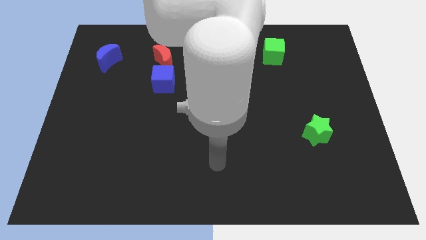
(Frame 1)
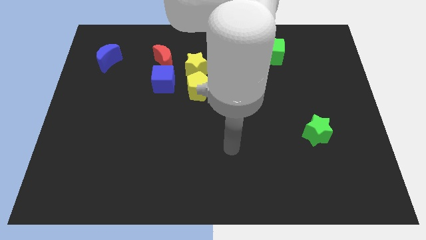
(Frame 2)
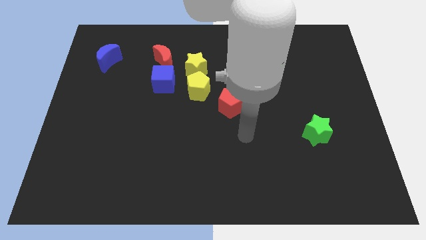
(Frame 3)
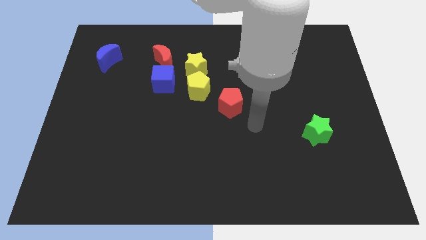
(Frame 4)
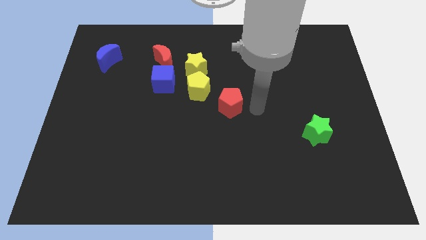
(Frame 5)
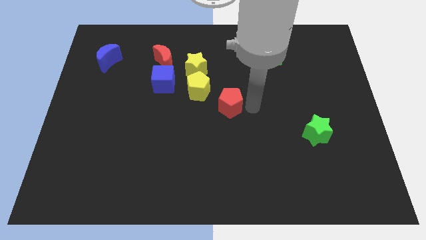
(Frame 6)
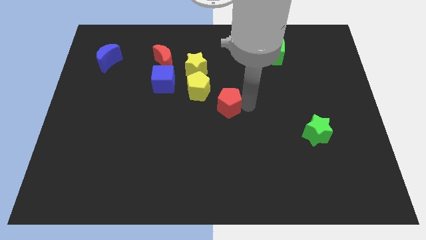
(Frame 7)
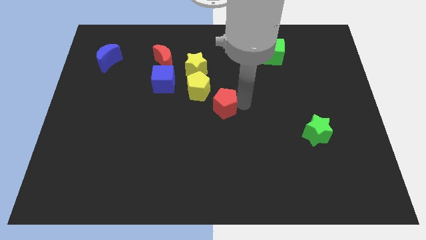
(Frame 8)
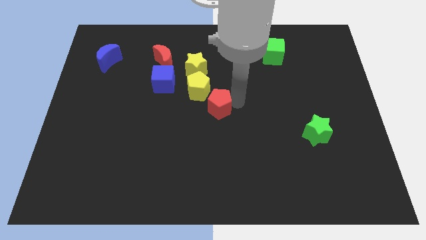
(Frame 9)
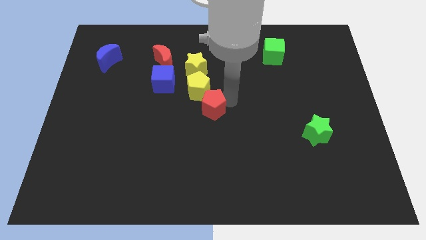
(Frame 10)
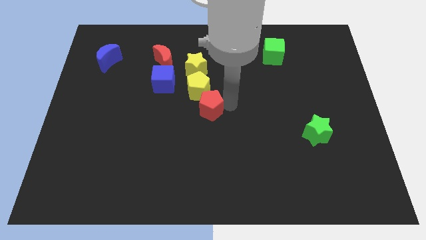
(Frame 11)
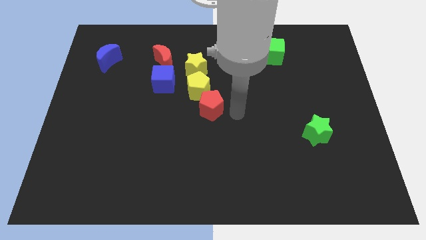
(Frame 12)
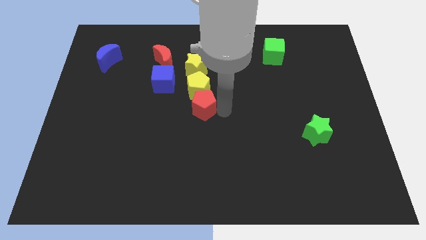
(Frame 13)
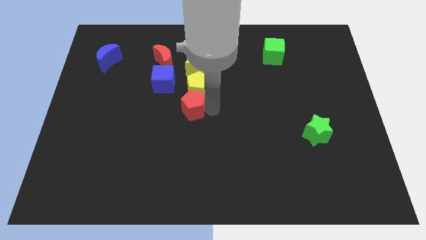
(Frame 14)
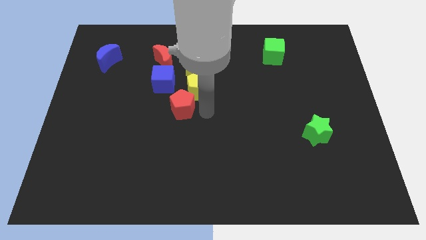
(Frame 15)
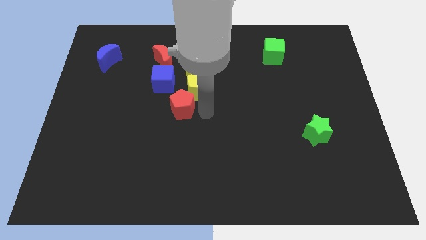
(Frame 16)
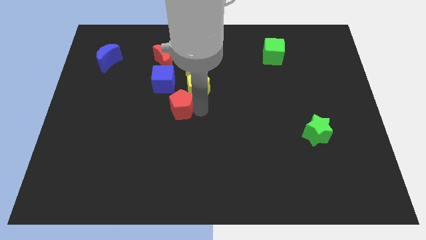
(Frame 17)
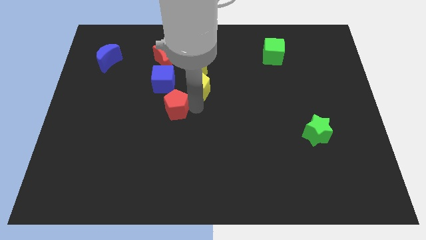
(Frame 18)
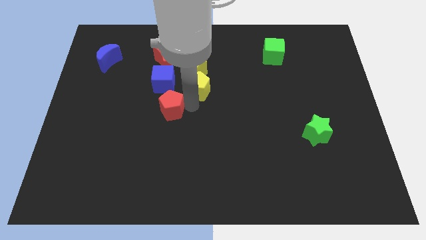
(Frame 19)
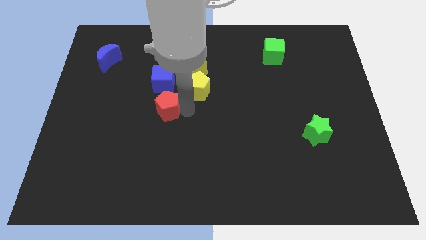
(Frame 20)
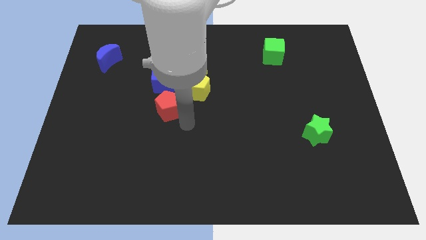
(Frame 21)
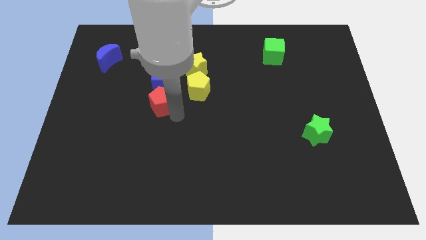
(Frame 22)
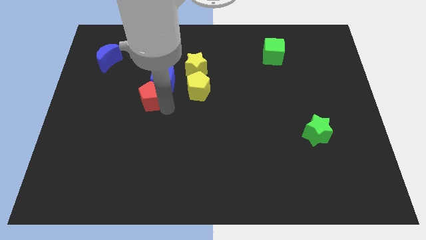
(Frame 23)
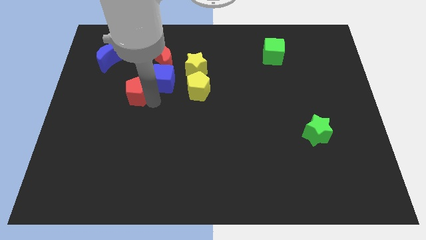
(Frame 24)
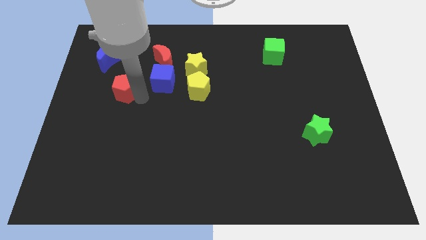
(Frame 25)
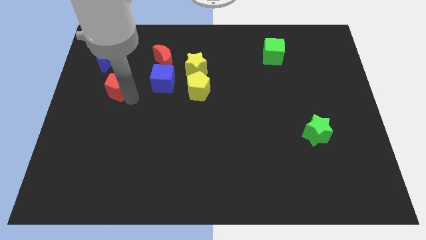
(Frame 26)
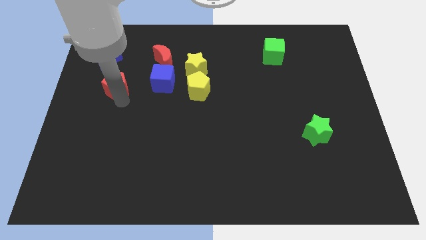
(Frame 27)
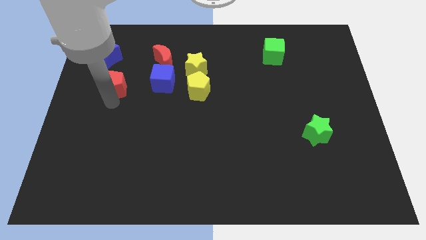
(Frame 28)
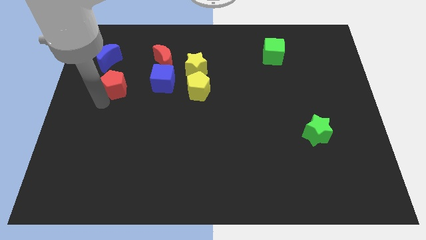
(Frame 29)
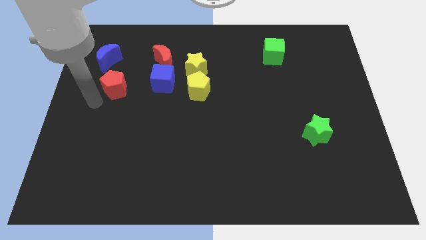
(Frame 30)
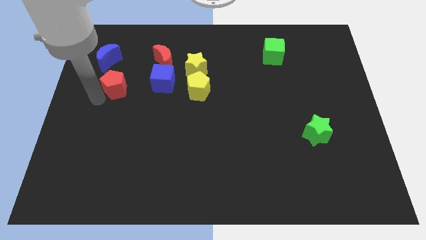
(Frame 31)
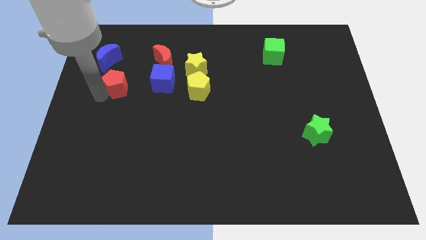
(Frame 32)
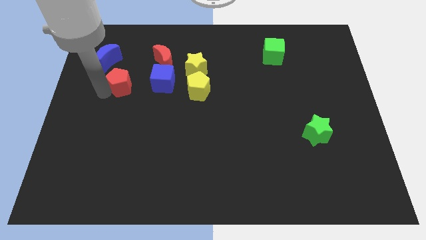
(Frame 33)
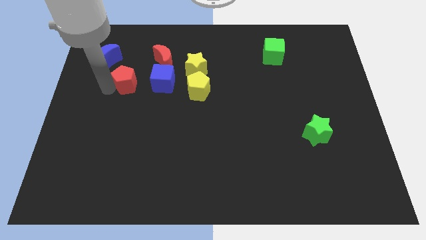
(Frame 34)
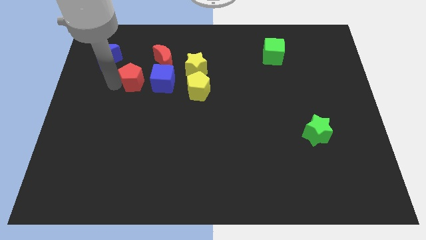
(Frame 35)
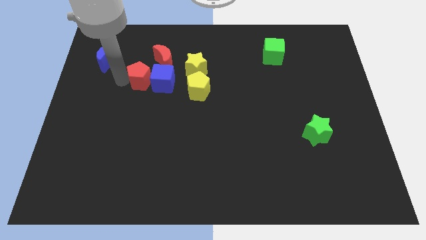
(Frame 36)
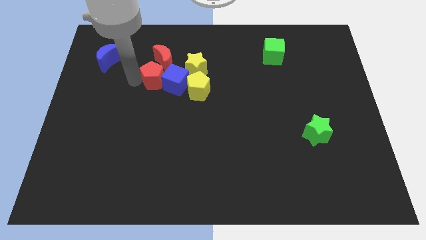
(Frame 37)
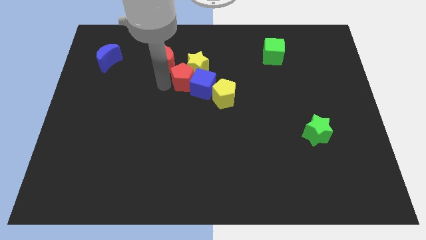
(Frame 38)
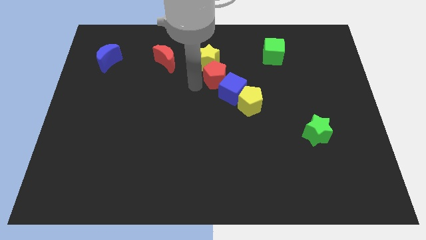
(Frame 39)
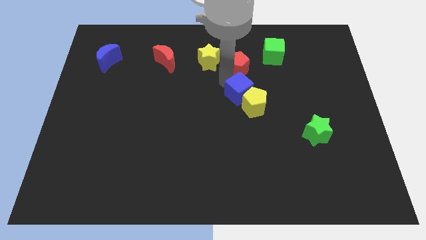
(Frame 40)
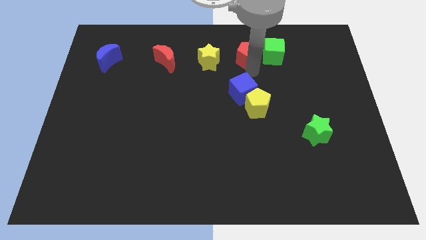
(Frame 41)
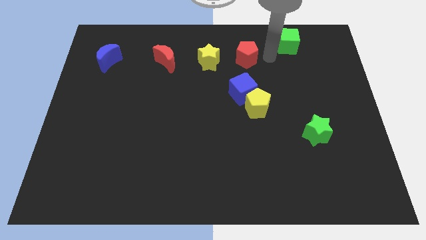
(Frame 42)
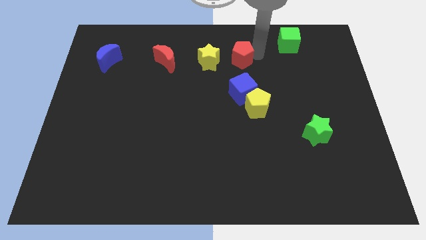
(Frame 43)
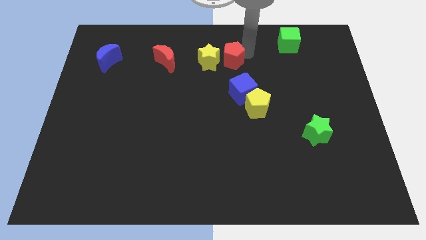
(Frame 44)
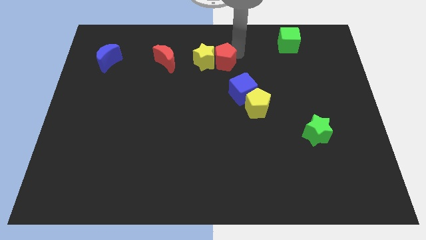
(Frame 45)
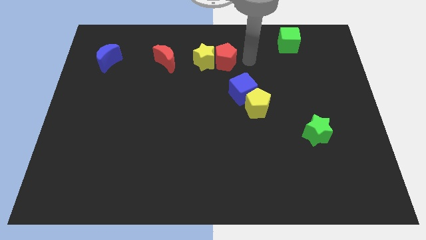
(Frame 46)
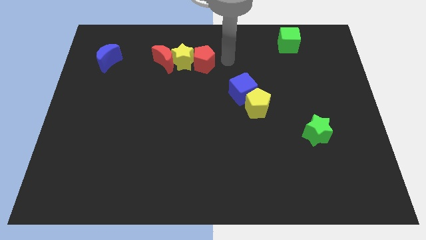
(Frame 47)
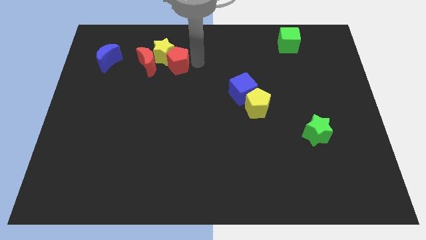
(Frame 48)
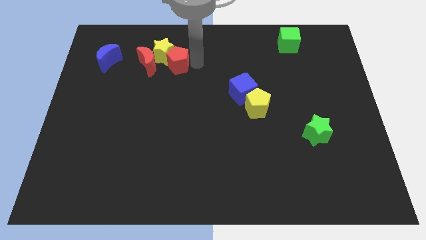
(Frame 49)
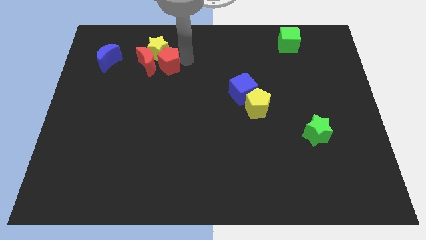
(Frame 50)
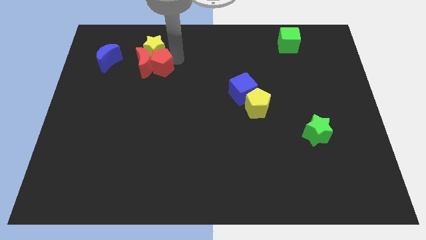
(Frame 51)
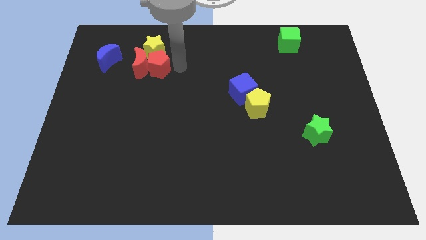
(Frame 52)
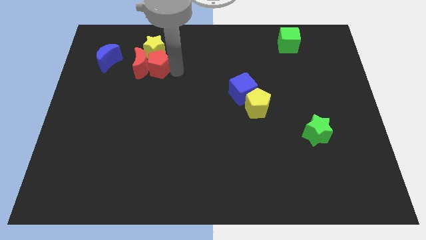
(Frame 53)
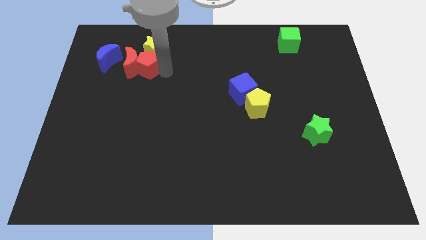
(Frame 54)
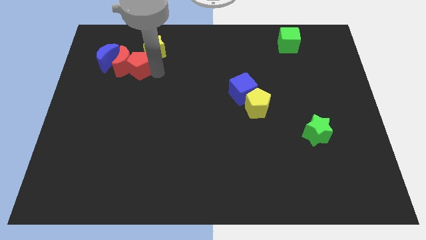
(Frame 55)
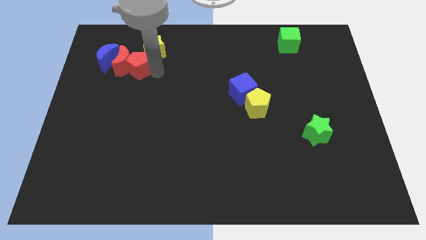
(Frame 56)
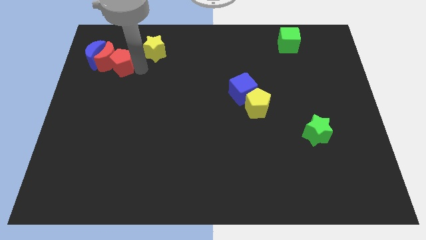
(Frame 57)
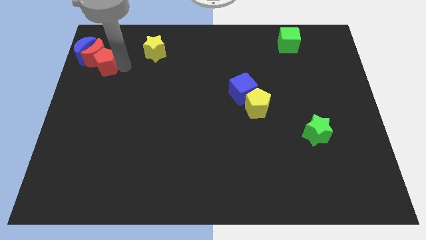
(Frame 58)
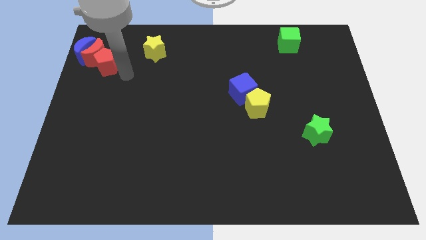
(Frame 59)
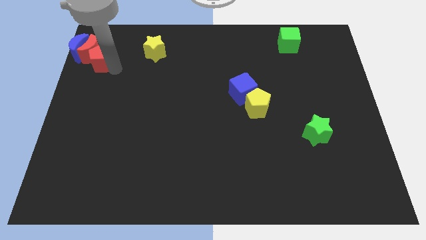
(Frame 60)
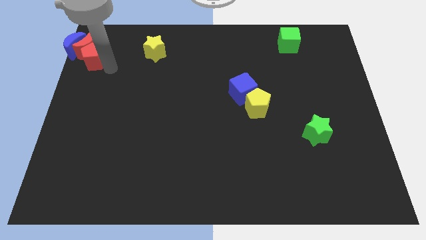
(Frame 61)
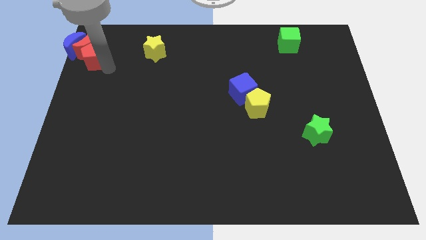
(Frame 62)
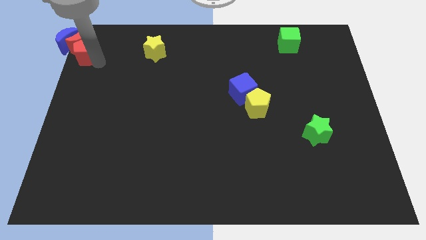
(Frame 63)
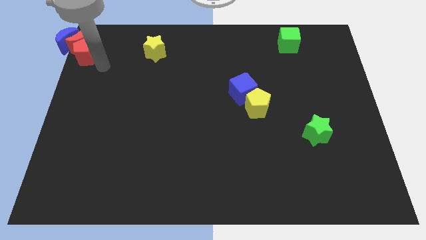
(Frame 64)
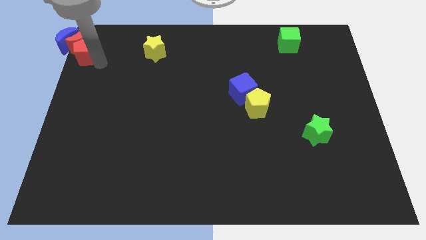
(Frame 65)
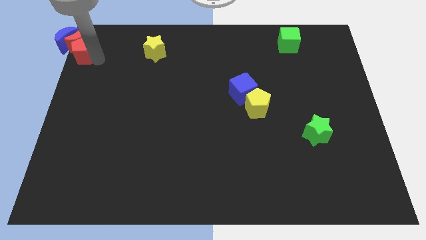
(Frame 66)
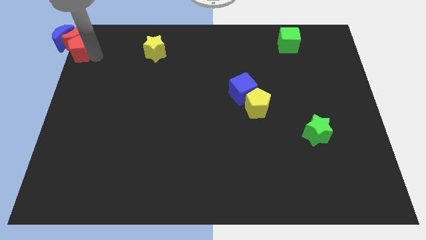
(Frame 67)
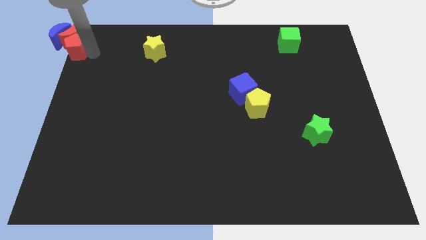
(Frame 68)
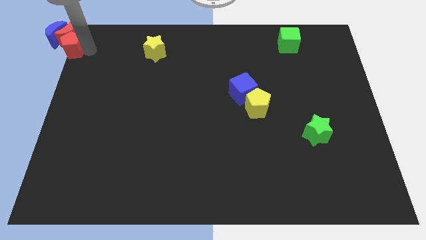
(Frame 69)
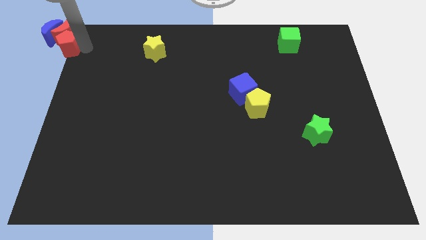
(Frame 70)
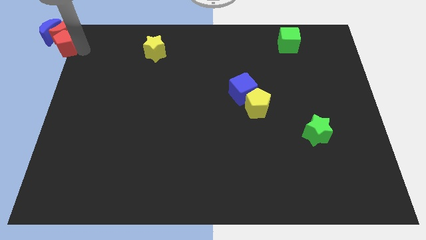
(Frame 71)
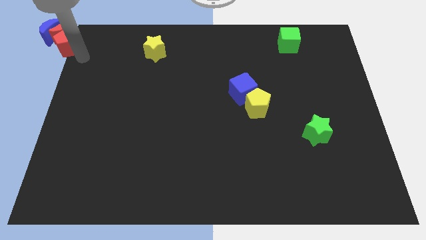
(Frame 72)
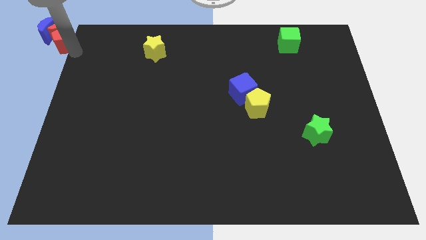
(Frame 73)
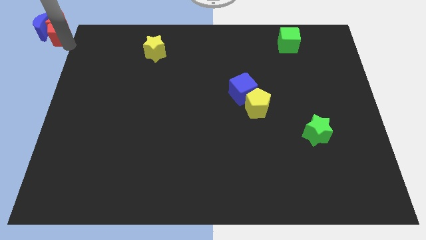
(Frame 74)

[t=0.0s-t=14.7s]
slide the red pentagon close to the blue moon
